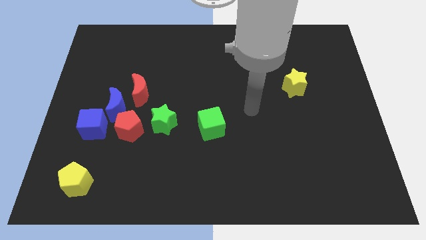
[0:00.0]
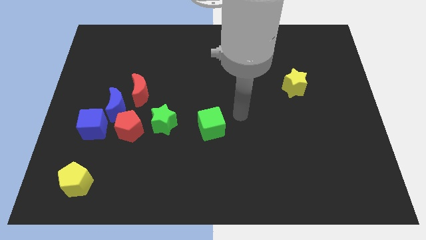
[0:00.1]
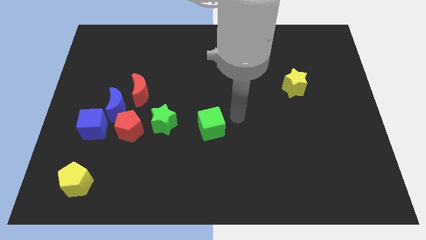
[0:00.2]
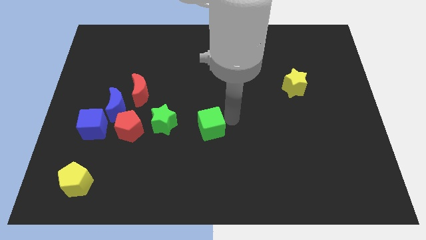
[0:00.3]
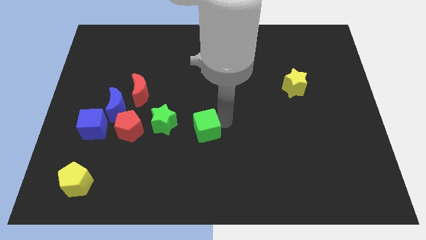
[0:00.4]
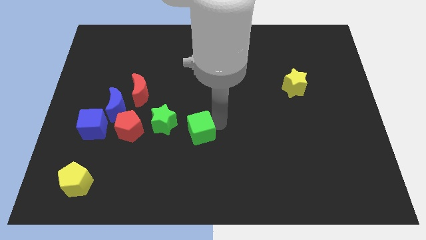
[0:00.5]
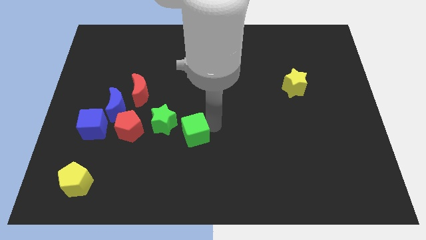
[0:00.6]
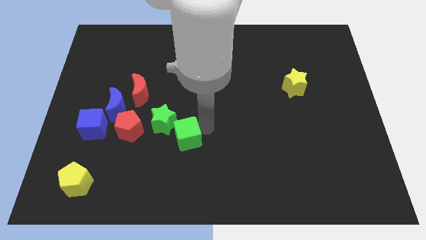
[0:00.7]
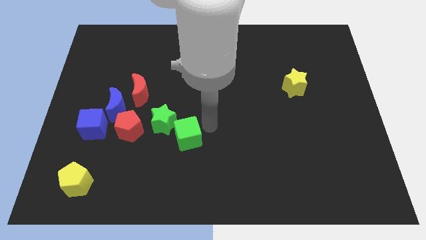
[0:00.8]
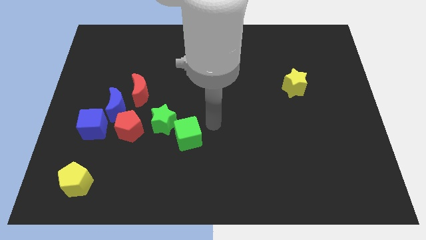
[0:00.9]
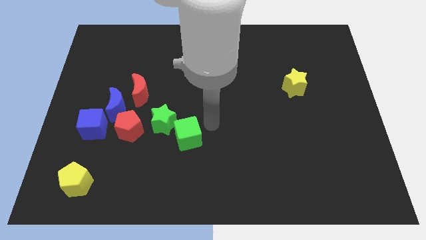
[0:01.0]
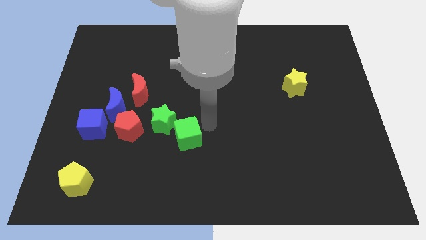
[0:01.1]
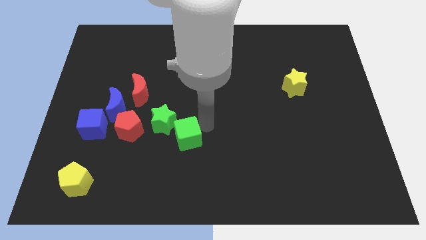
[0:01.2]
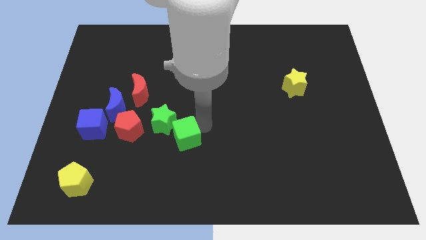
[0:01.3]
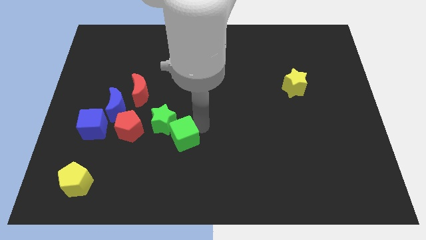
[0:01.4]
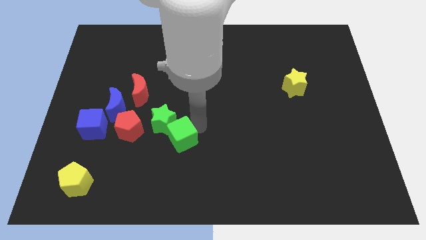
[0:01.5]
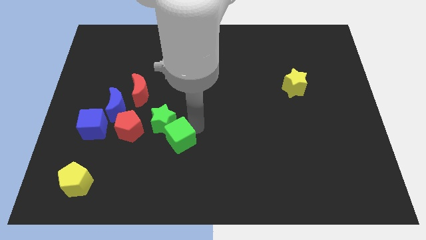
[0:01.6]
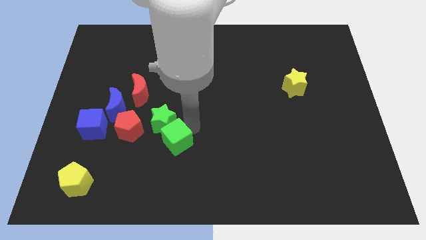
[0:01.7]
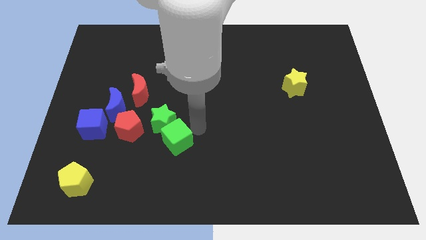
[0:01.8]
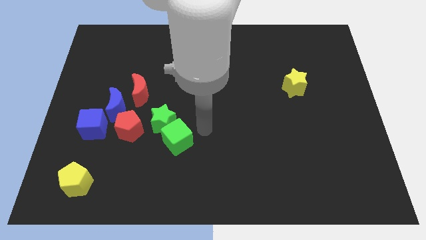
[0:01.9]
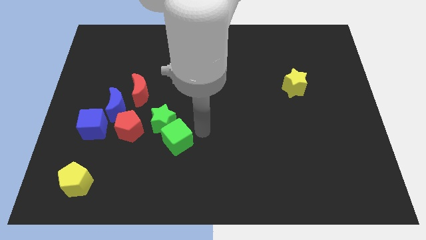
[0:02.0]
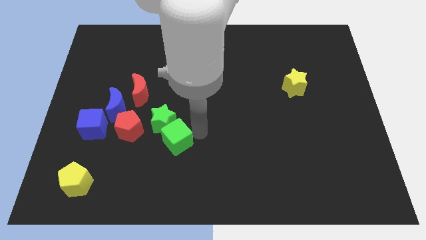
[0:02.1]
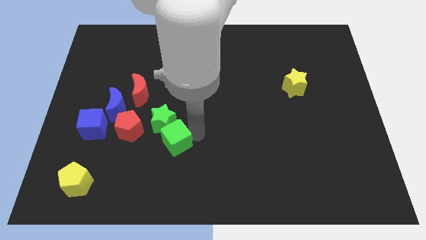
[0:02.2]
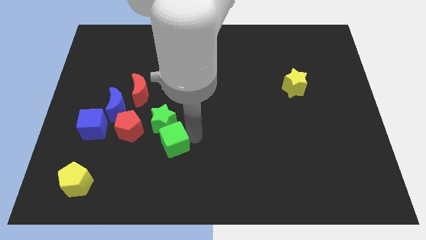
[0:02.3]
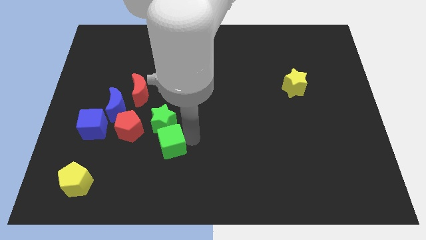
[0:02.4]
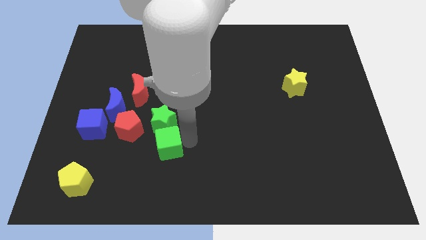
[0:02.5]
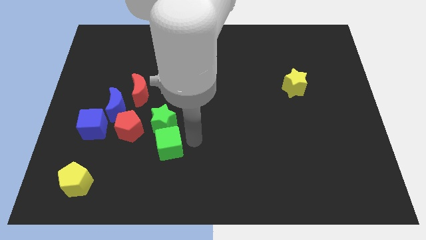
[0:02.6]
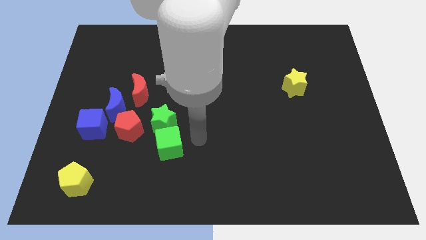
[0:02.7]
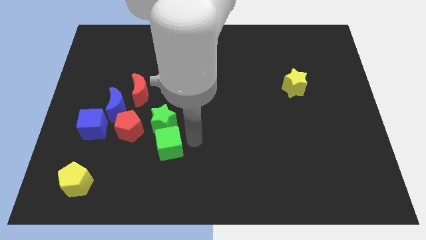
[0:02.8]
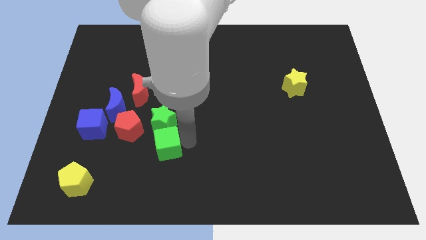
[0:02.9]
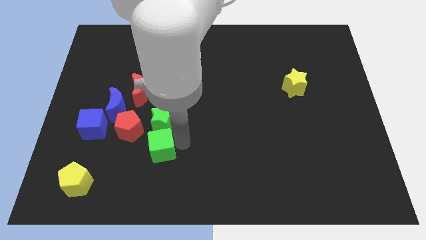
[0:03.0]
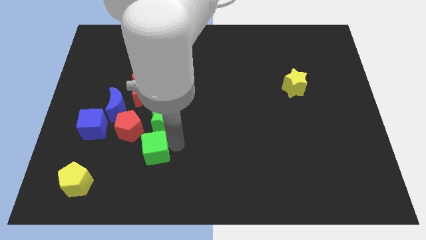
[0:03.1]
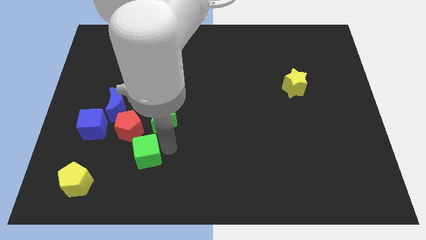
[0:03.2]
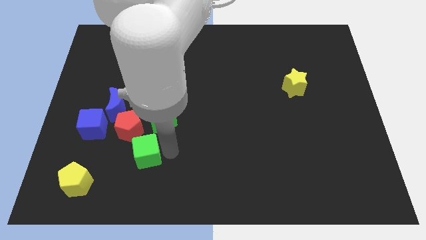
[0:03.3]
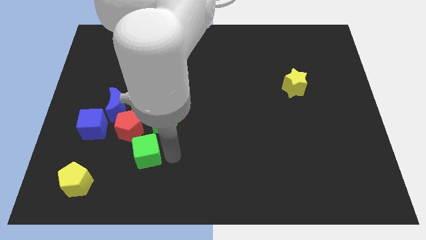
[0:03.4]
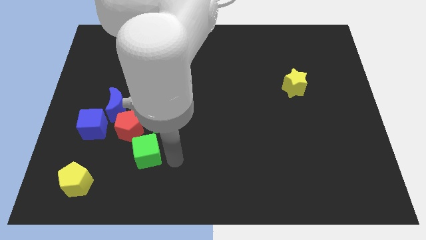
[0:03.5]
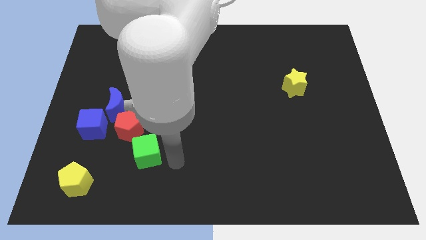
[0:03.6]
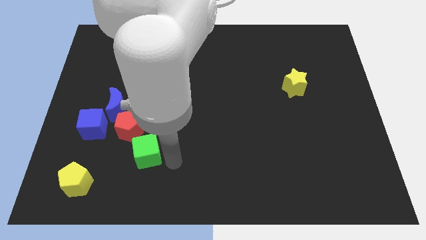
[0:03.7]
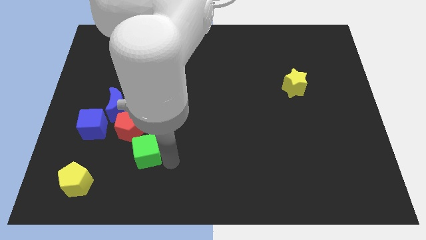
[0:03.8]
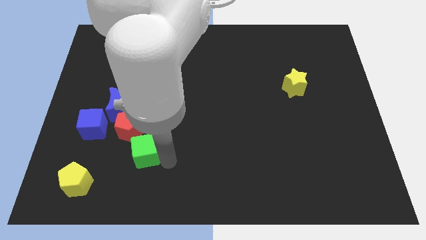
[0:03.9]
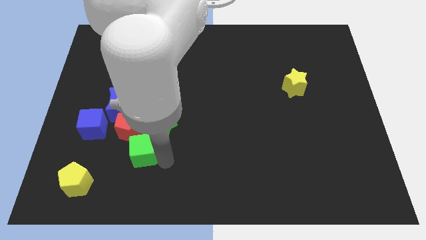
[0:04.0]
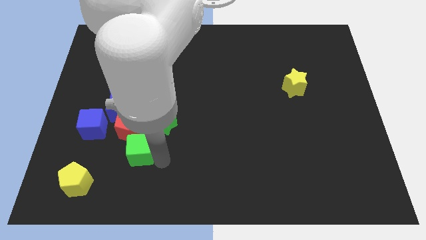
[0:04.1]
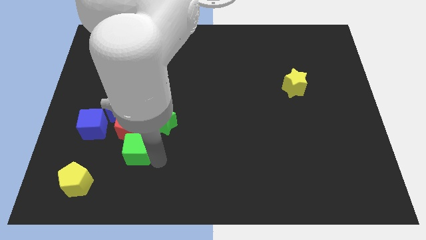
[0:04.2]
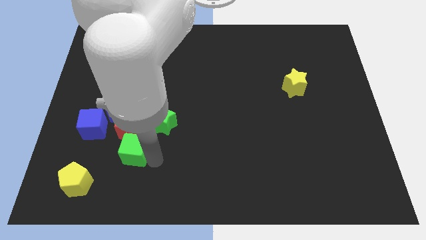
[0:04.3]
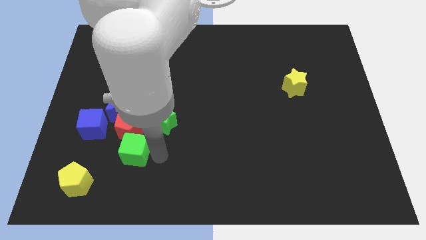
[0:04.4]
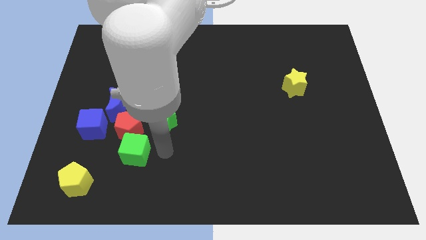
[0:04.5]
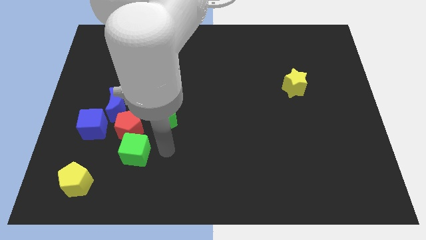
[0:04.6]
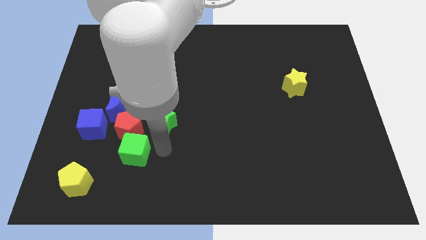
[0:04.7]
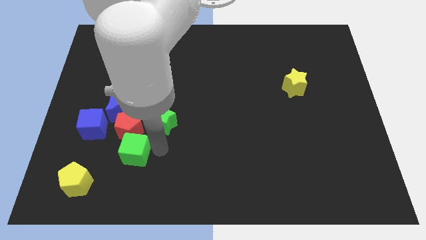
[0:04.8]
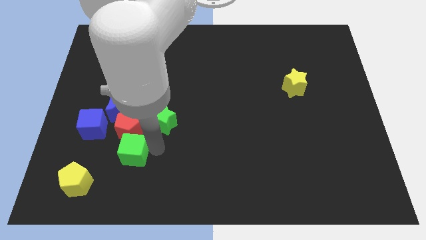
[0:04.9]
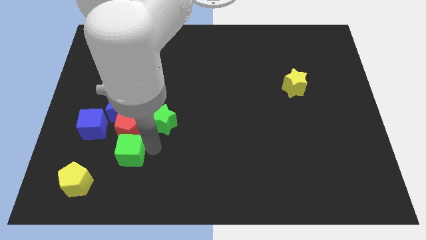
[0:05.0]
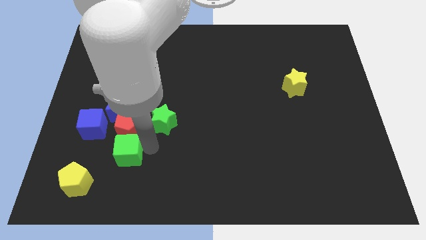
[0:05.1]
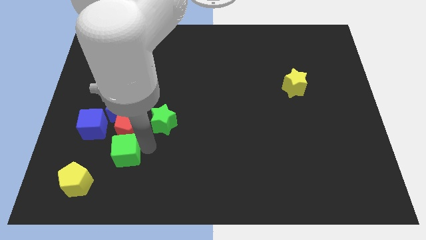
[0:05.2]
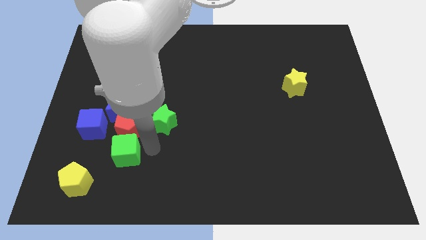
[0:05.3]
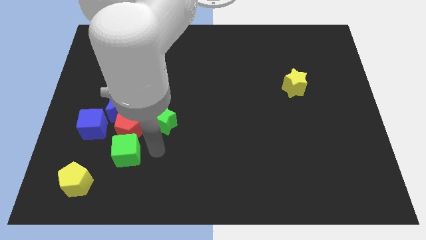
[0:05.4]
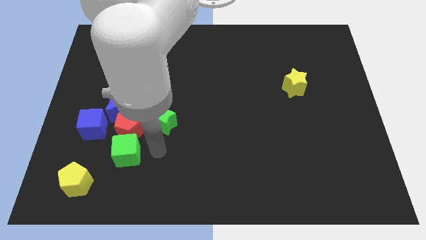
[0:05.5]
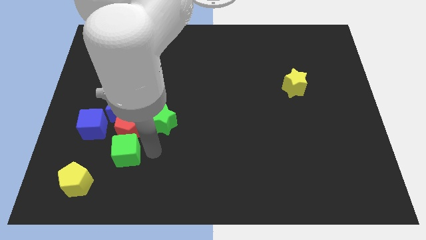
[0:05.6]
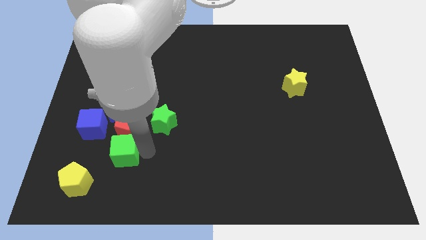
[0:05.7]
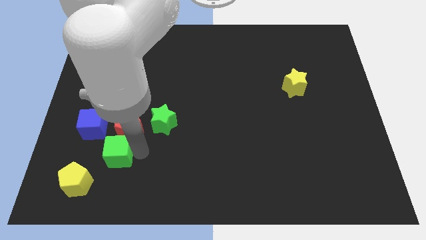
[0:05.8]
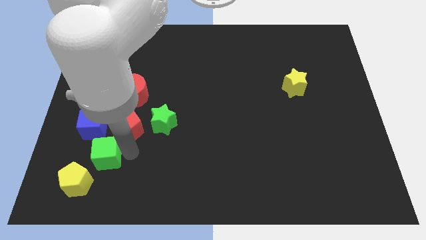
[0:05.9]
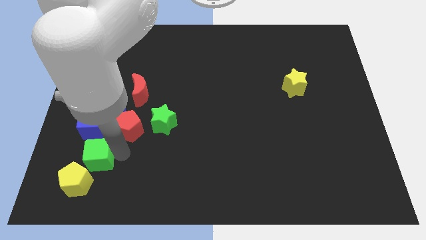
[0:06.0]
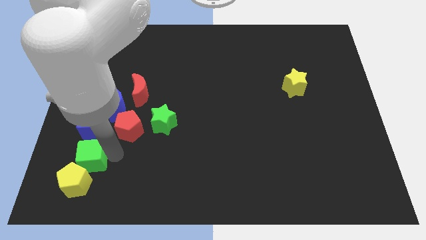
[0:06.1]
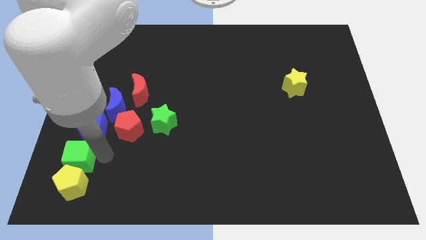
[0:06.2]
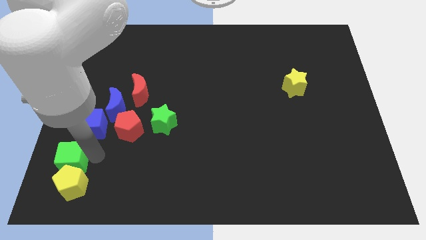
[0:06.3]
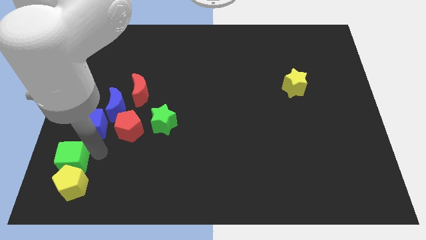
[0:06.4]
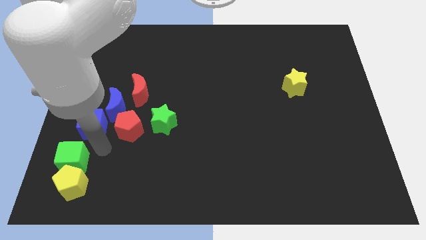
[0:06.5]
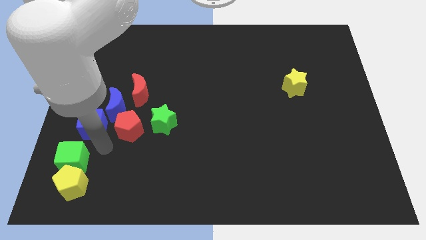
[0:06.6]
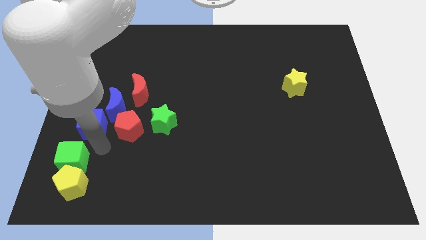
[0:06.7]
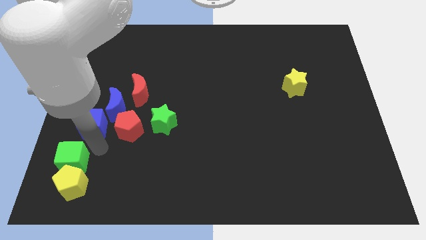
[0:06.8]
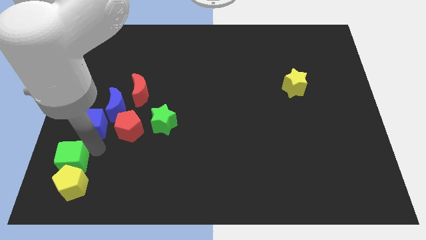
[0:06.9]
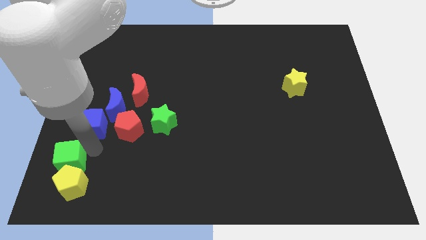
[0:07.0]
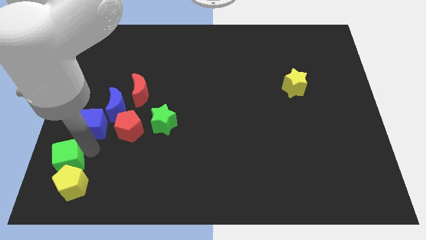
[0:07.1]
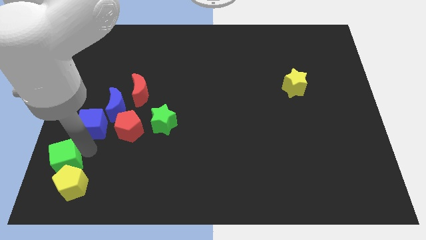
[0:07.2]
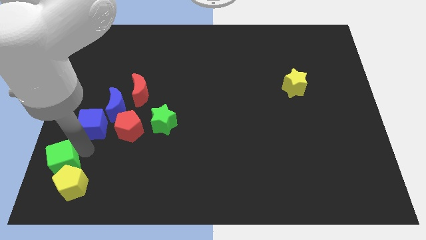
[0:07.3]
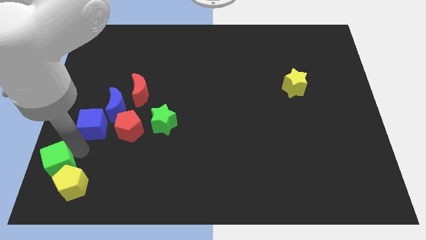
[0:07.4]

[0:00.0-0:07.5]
slide the green cube to the bottom left corner
